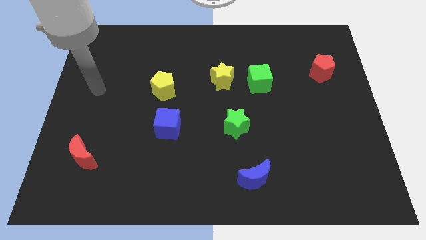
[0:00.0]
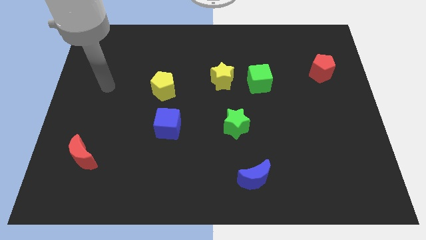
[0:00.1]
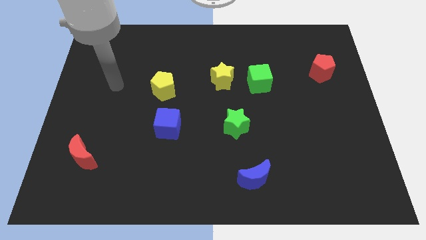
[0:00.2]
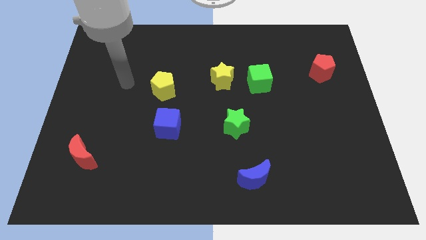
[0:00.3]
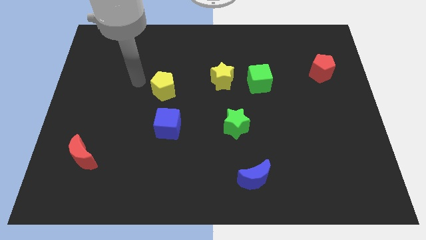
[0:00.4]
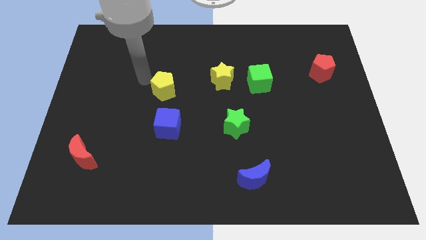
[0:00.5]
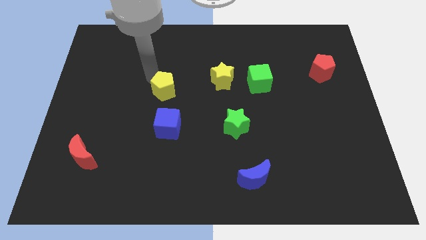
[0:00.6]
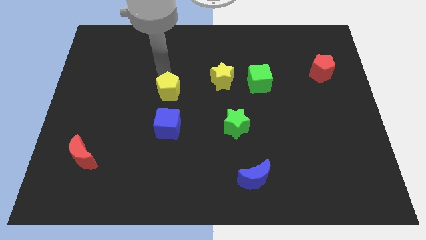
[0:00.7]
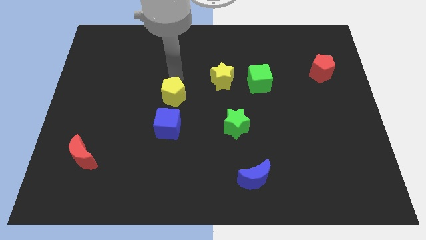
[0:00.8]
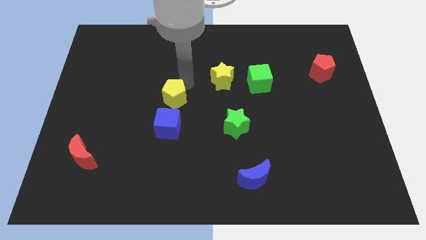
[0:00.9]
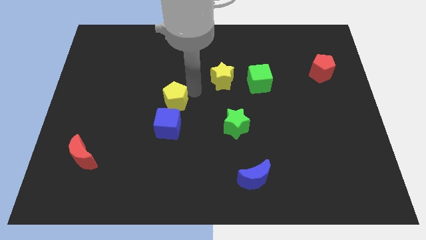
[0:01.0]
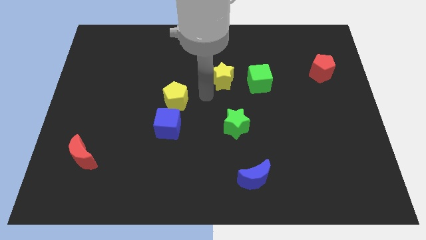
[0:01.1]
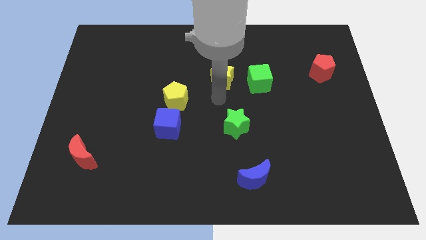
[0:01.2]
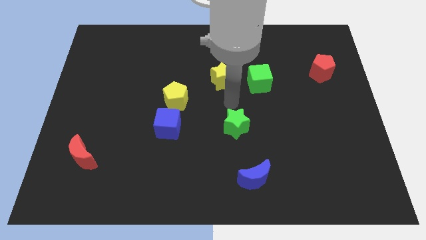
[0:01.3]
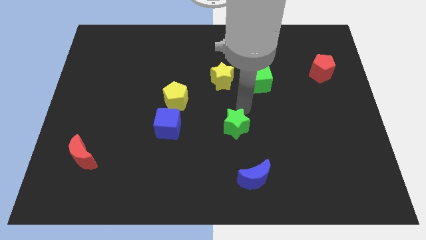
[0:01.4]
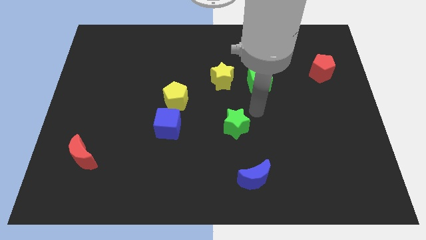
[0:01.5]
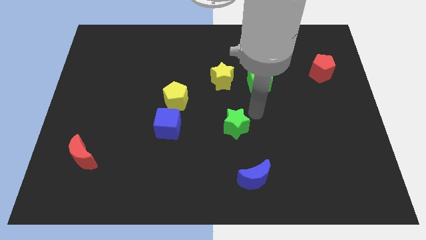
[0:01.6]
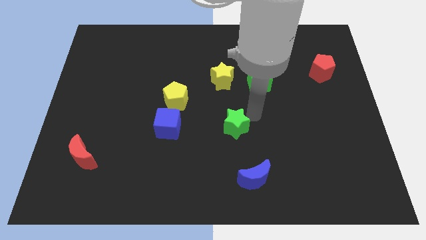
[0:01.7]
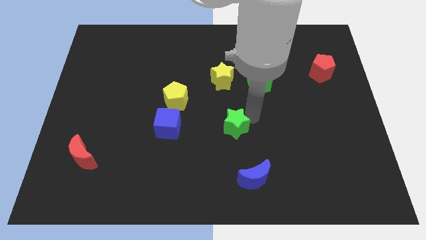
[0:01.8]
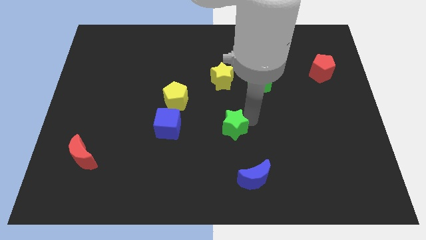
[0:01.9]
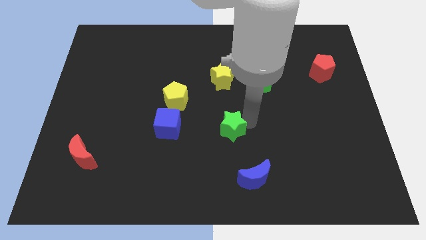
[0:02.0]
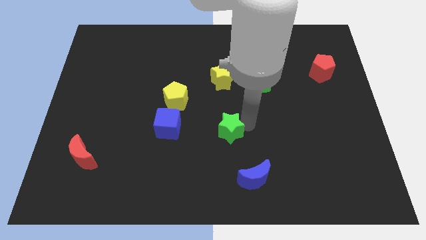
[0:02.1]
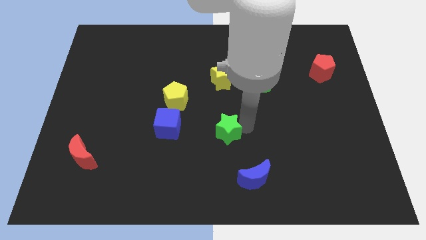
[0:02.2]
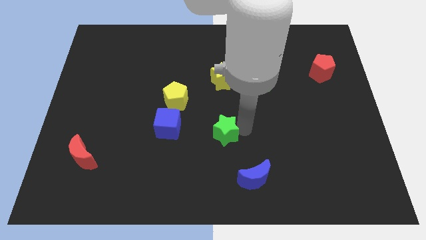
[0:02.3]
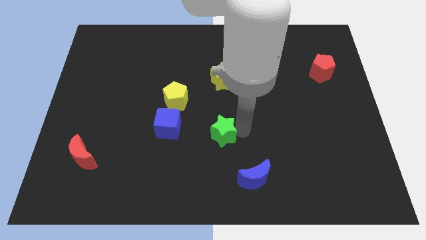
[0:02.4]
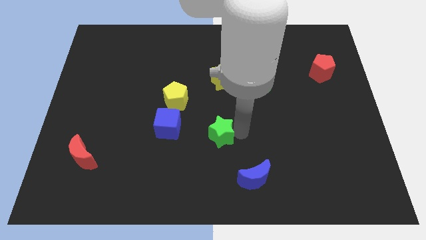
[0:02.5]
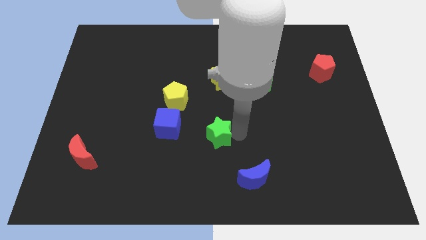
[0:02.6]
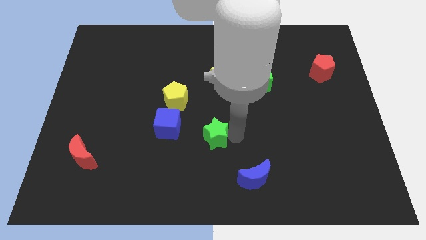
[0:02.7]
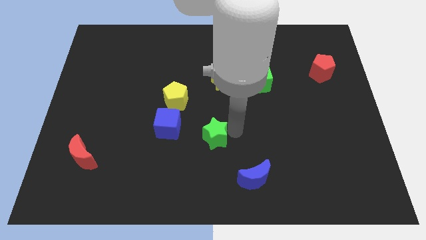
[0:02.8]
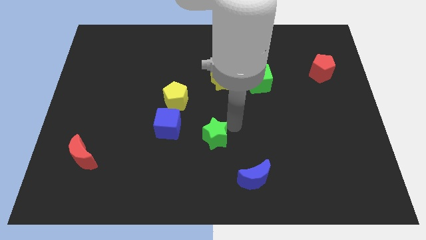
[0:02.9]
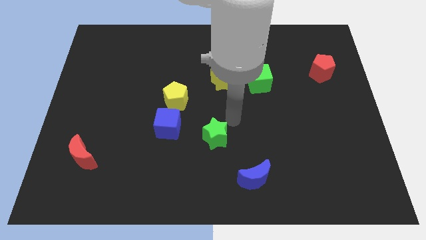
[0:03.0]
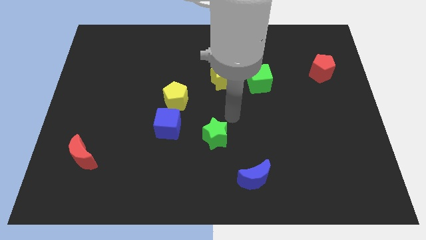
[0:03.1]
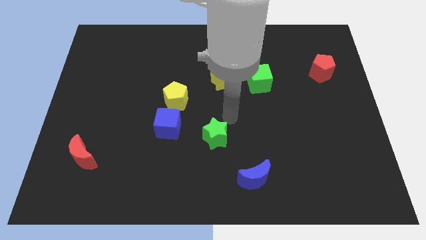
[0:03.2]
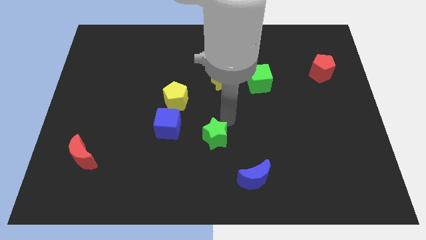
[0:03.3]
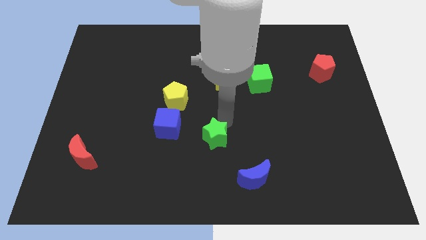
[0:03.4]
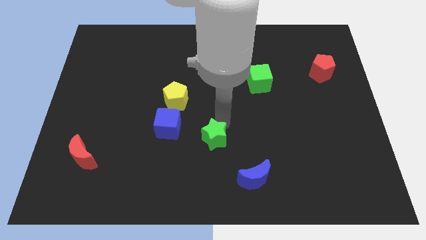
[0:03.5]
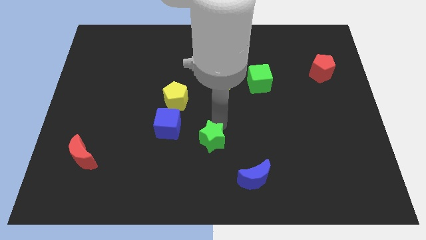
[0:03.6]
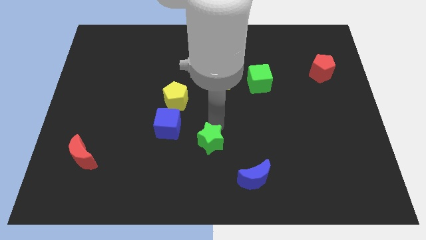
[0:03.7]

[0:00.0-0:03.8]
push the green star a little downwards and then left

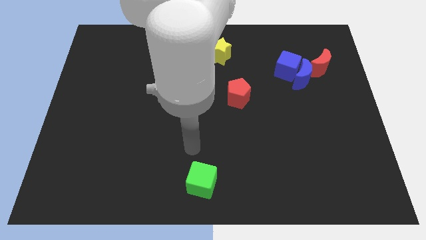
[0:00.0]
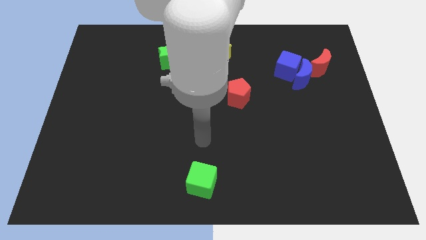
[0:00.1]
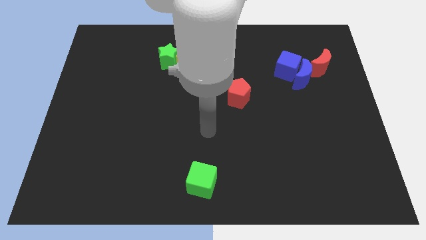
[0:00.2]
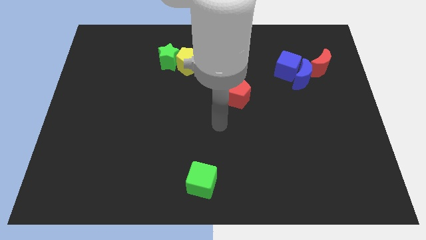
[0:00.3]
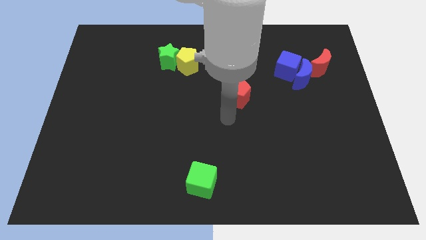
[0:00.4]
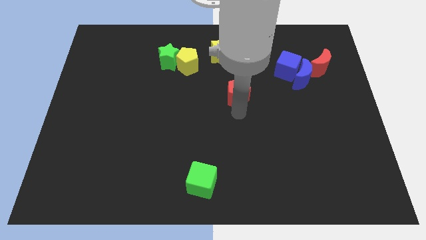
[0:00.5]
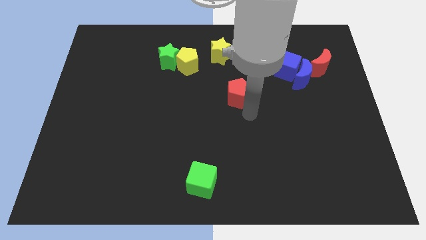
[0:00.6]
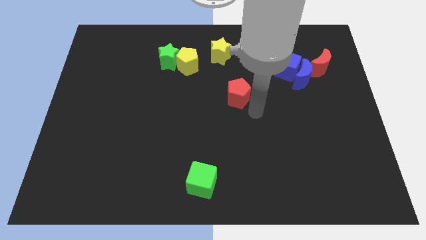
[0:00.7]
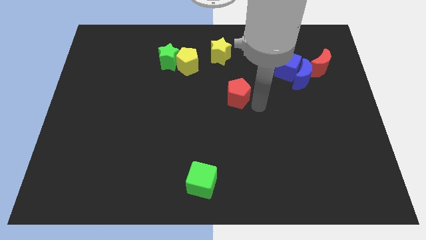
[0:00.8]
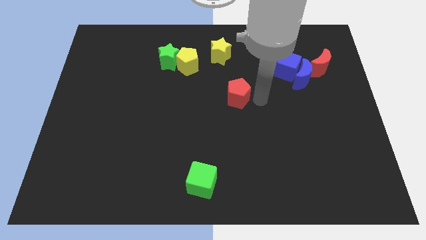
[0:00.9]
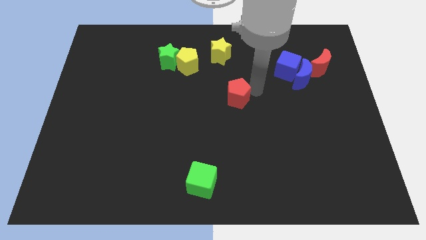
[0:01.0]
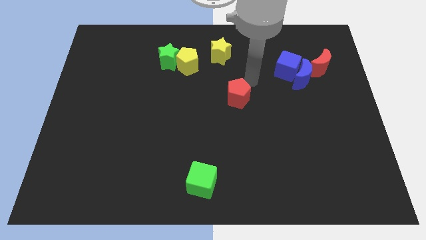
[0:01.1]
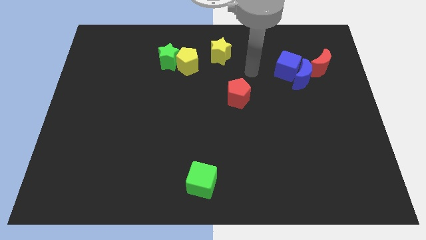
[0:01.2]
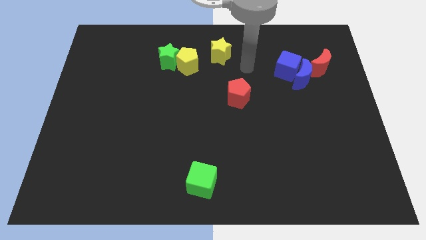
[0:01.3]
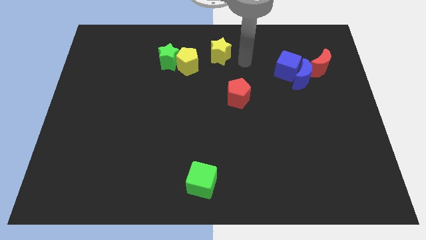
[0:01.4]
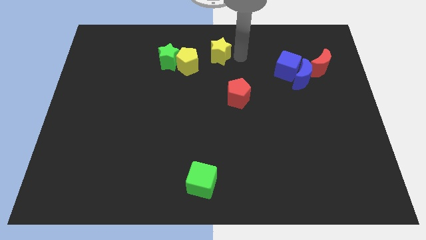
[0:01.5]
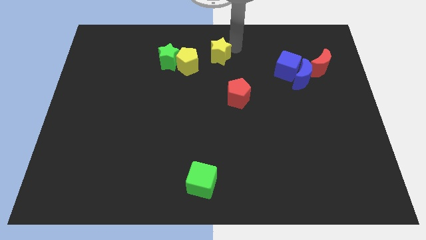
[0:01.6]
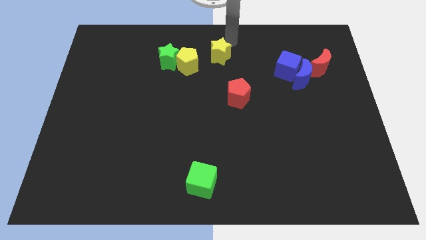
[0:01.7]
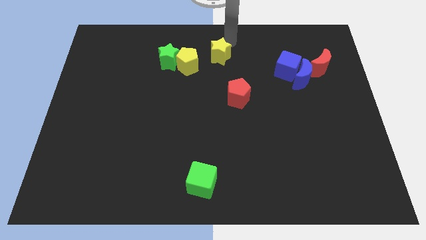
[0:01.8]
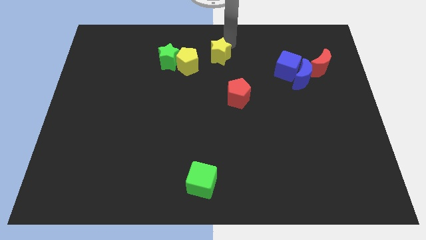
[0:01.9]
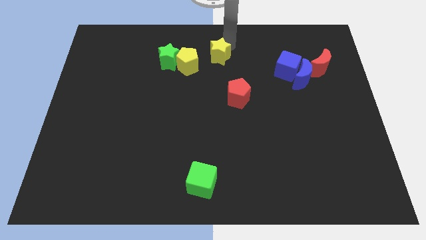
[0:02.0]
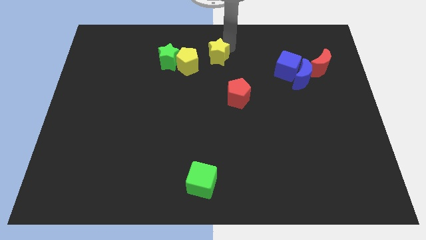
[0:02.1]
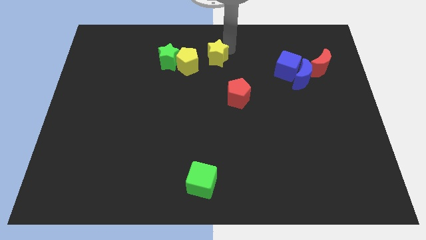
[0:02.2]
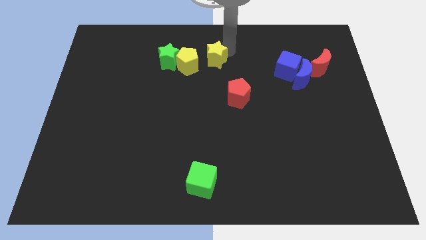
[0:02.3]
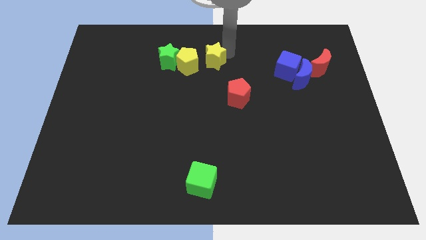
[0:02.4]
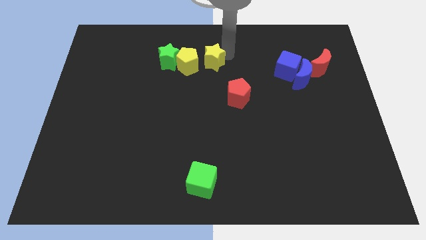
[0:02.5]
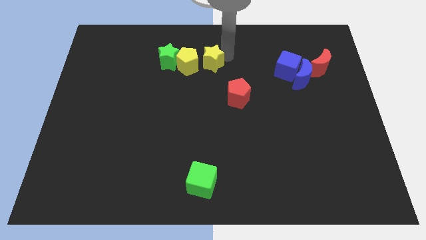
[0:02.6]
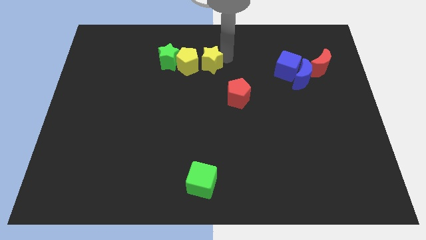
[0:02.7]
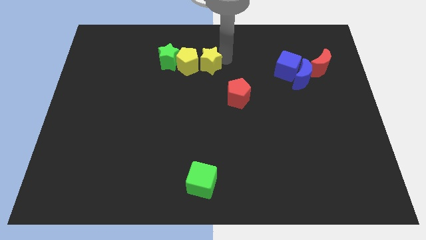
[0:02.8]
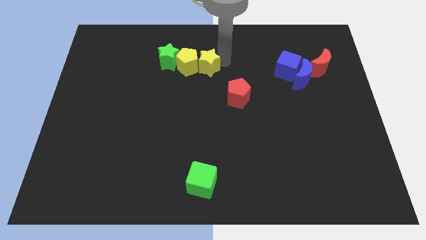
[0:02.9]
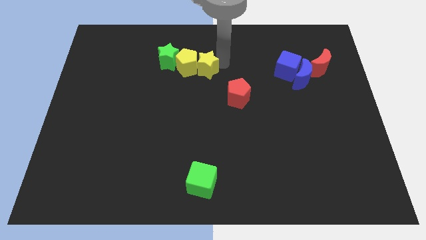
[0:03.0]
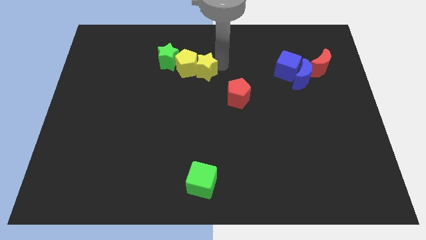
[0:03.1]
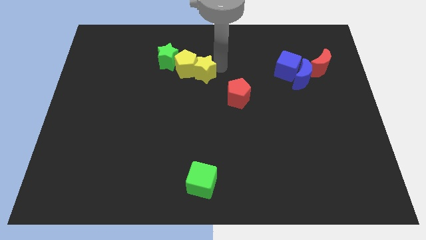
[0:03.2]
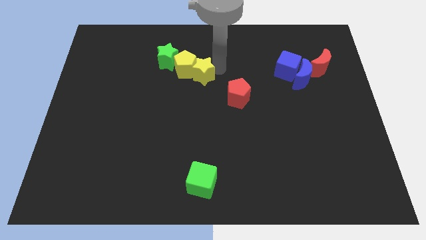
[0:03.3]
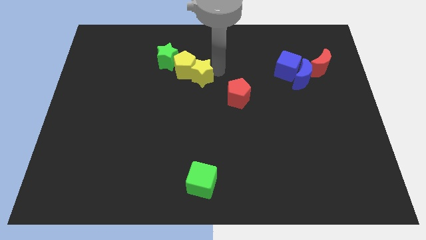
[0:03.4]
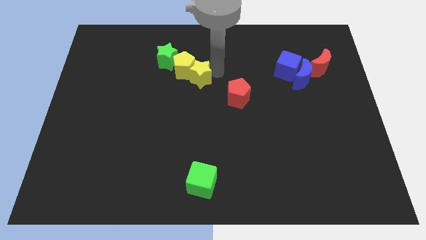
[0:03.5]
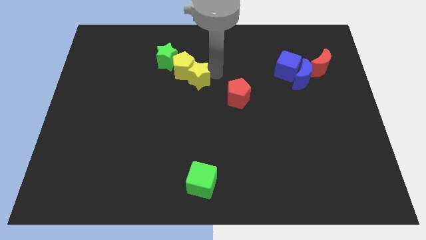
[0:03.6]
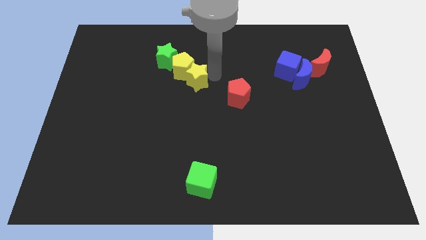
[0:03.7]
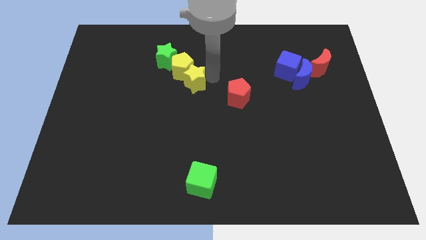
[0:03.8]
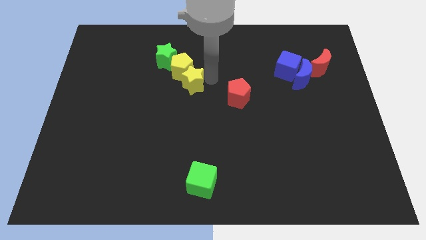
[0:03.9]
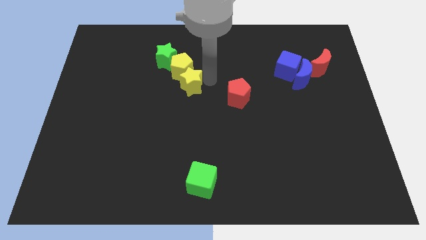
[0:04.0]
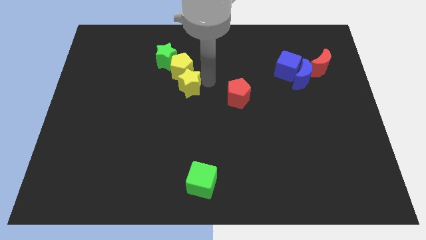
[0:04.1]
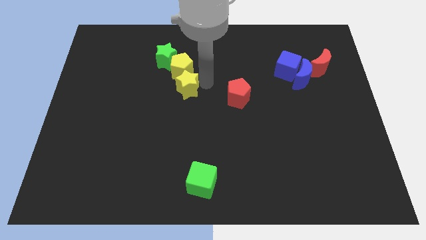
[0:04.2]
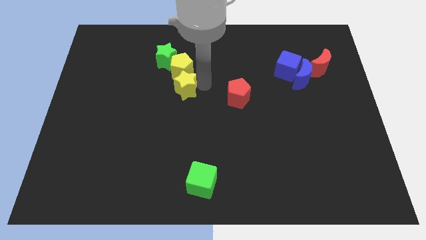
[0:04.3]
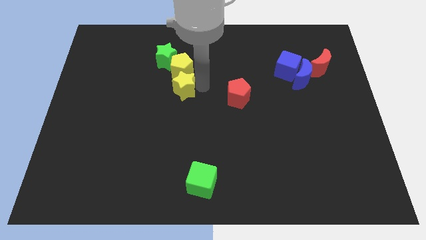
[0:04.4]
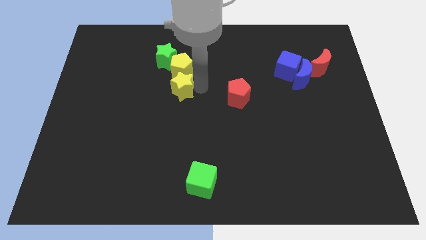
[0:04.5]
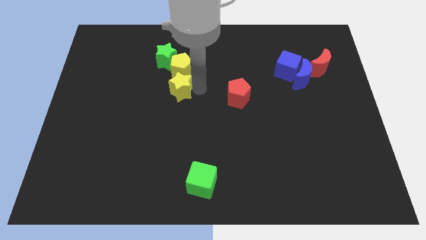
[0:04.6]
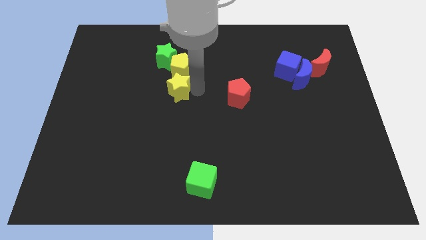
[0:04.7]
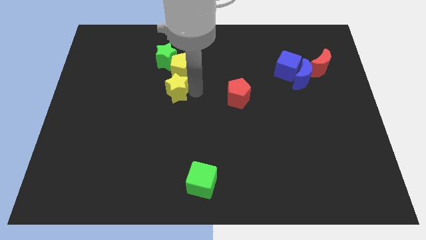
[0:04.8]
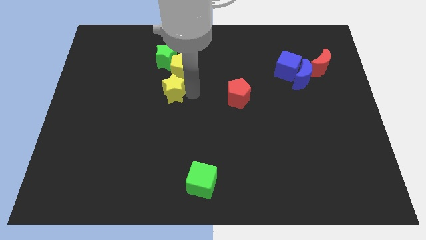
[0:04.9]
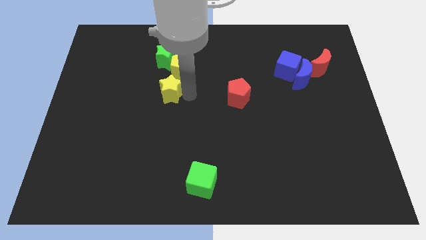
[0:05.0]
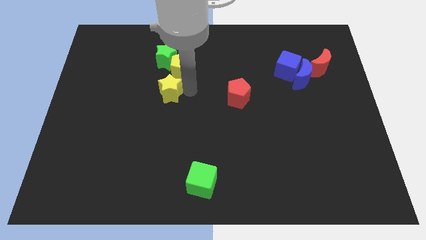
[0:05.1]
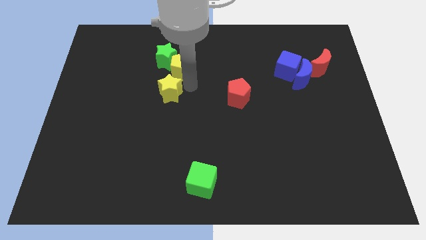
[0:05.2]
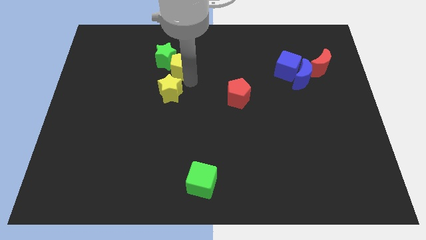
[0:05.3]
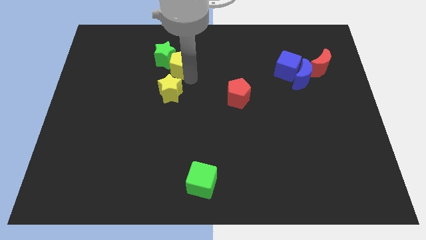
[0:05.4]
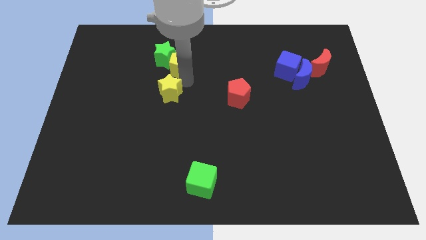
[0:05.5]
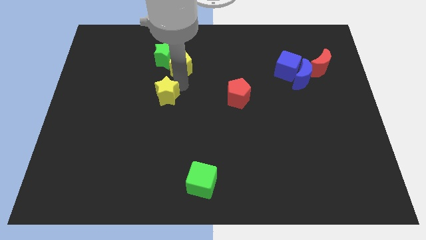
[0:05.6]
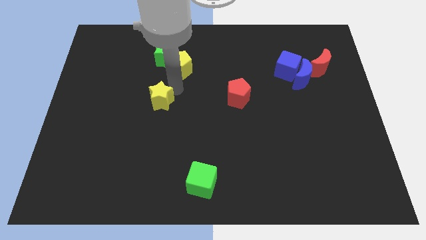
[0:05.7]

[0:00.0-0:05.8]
slide the yellow star down and then left
